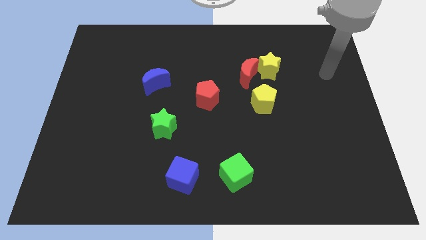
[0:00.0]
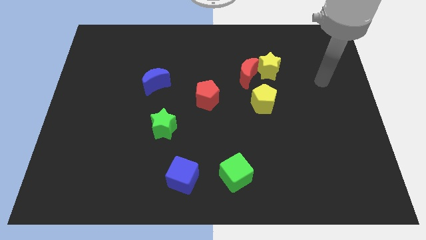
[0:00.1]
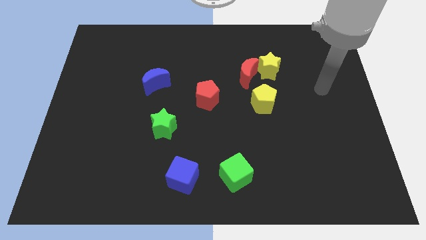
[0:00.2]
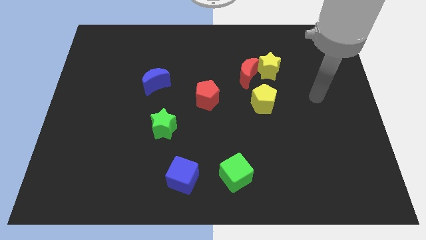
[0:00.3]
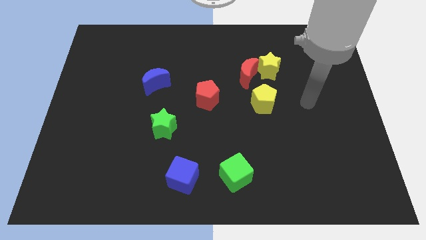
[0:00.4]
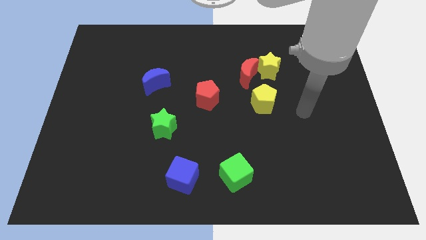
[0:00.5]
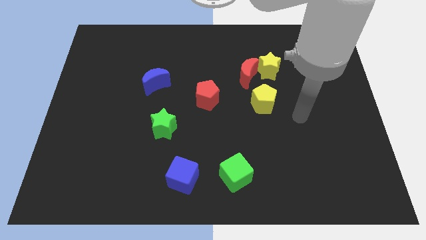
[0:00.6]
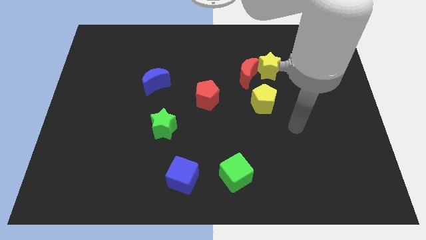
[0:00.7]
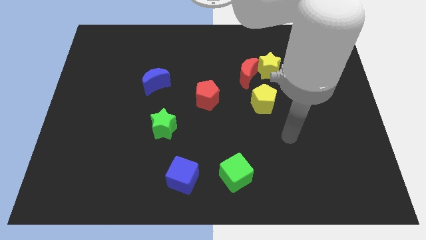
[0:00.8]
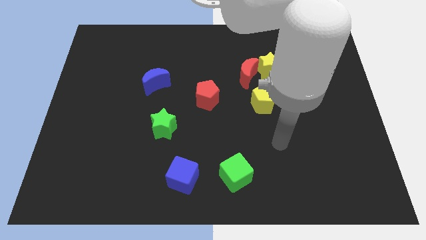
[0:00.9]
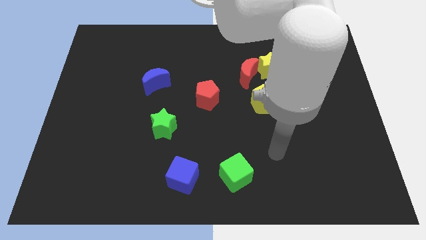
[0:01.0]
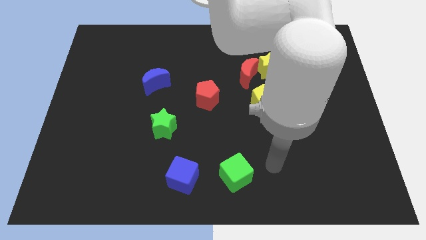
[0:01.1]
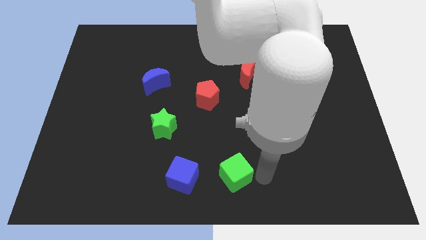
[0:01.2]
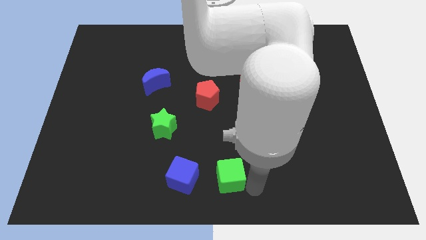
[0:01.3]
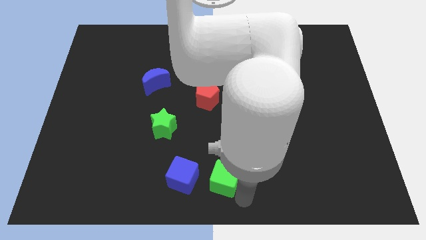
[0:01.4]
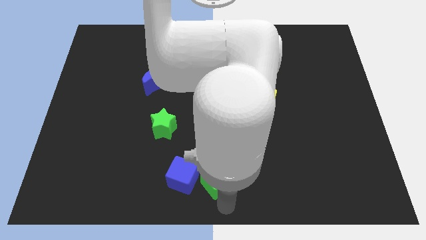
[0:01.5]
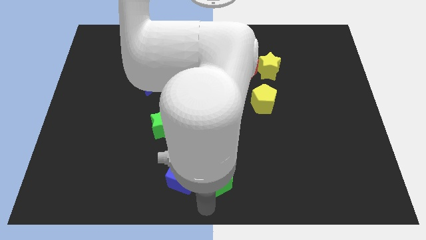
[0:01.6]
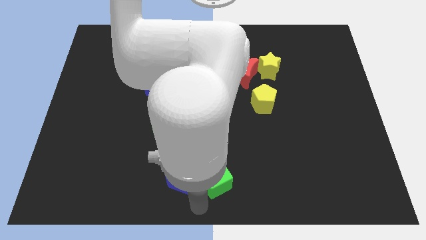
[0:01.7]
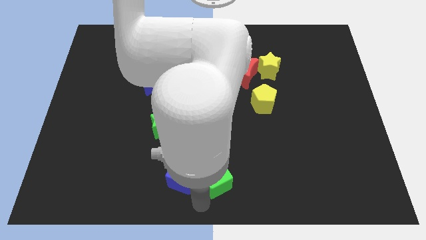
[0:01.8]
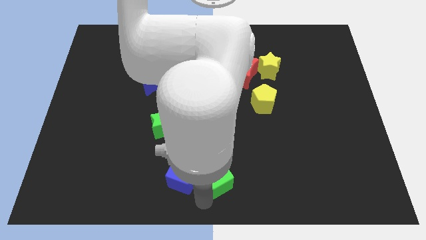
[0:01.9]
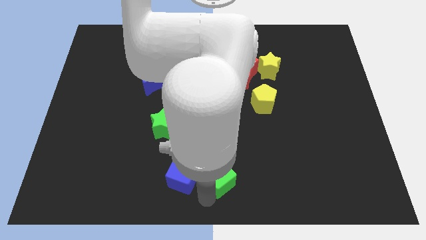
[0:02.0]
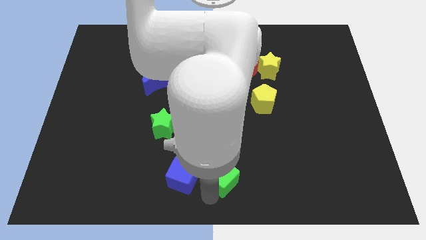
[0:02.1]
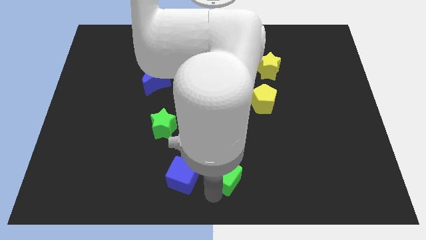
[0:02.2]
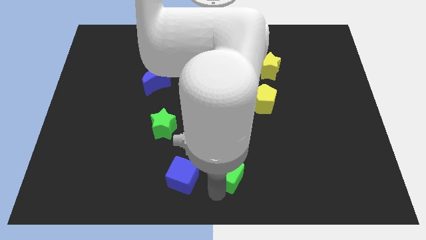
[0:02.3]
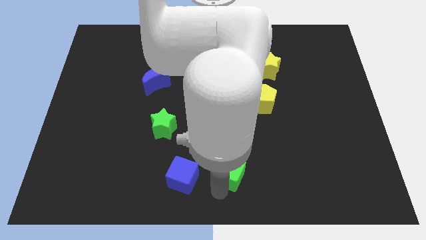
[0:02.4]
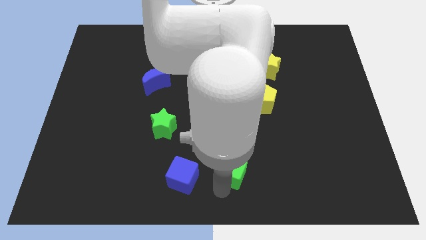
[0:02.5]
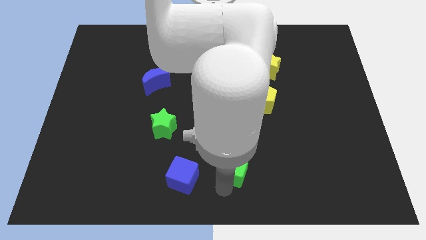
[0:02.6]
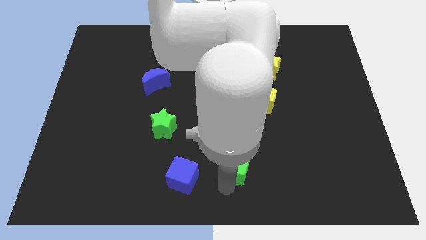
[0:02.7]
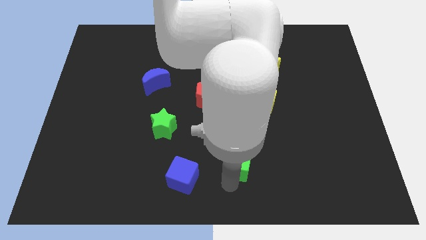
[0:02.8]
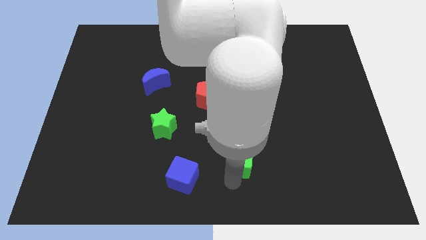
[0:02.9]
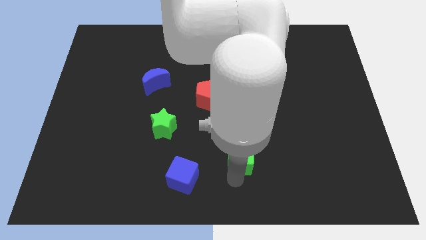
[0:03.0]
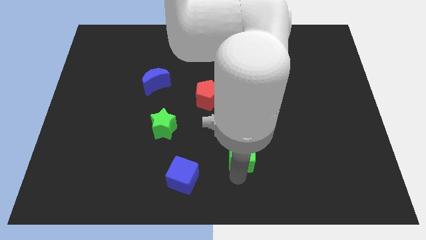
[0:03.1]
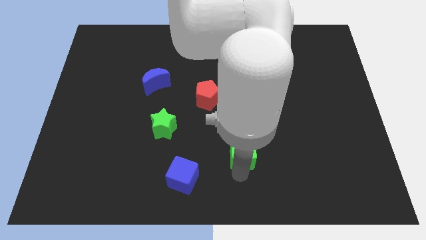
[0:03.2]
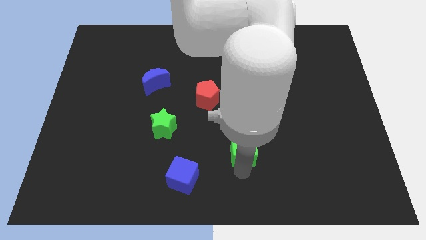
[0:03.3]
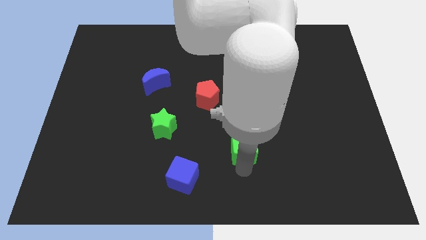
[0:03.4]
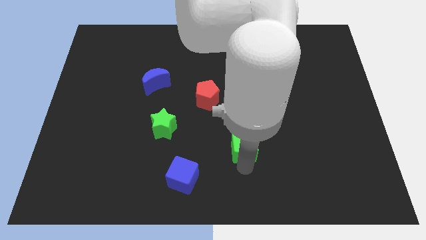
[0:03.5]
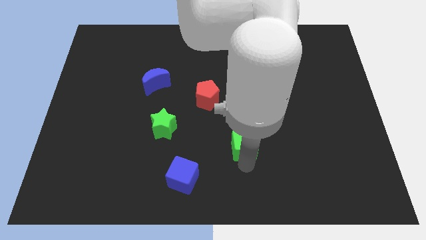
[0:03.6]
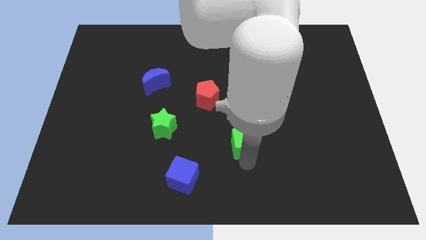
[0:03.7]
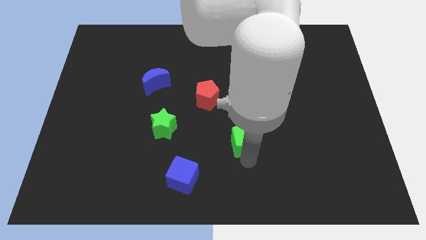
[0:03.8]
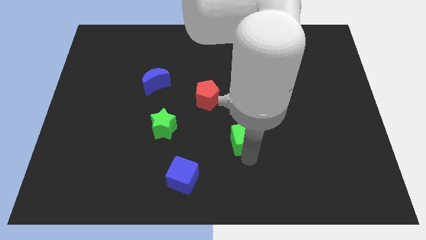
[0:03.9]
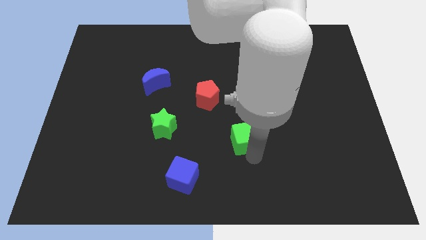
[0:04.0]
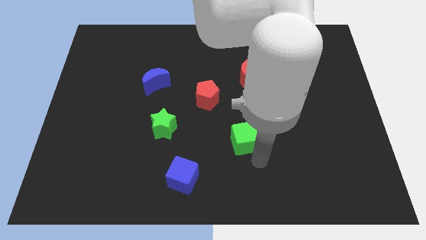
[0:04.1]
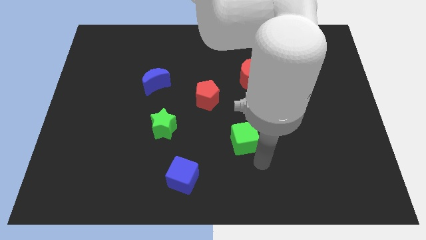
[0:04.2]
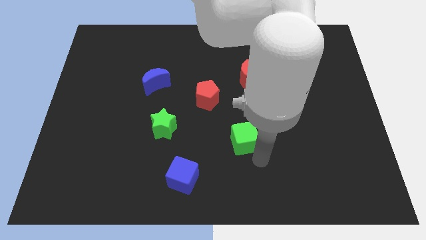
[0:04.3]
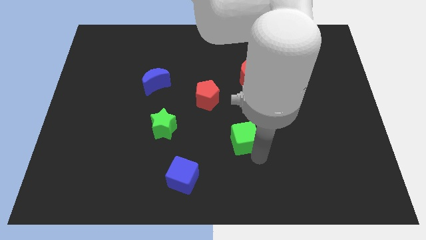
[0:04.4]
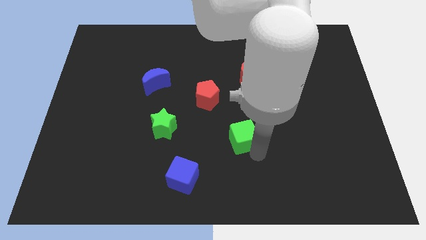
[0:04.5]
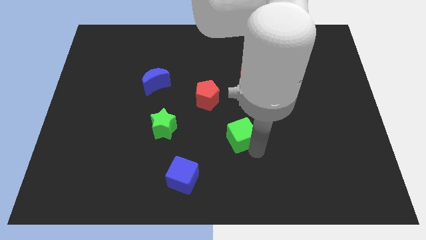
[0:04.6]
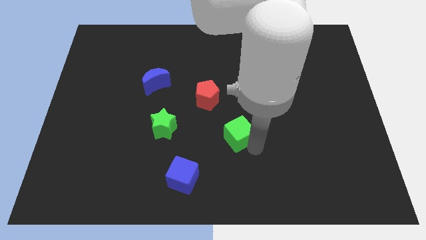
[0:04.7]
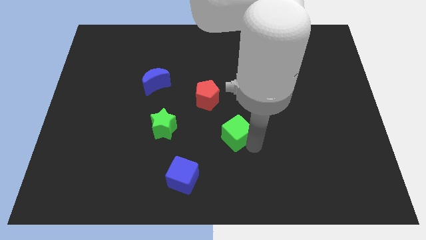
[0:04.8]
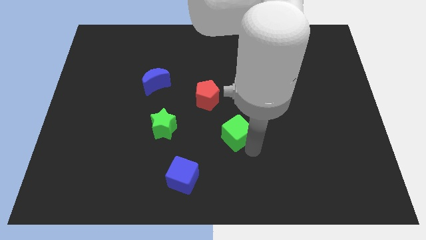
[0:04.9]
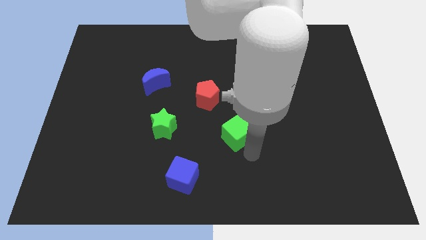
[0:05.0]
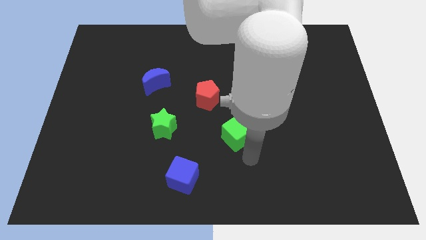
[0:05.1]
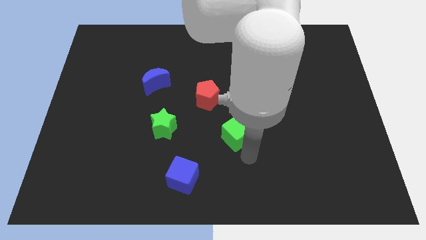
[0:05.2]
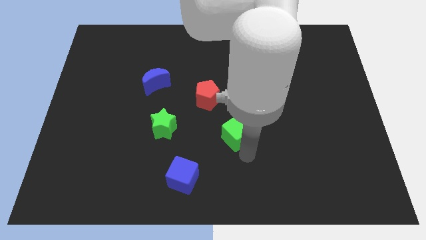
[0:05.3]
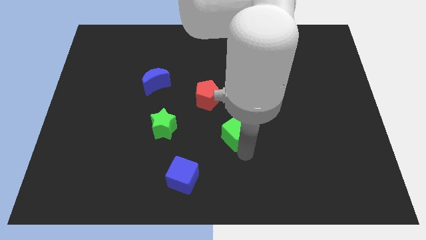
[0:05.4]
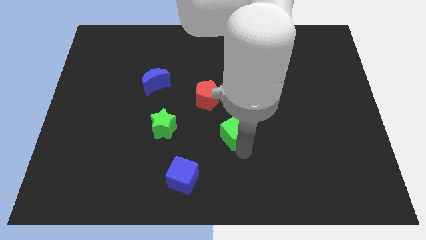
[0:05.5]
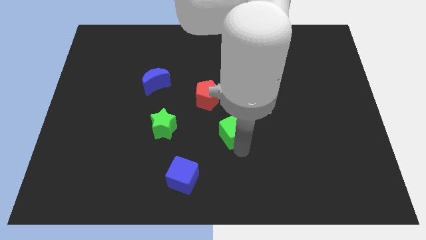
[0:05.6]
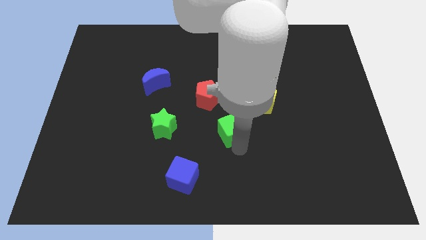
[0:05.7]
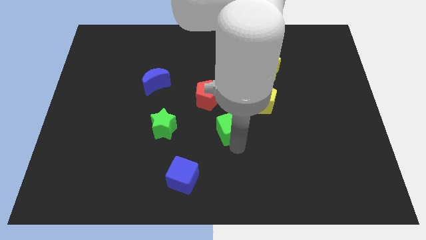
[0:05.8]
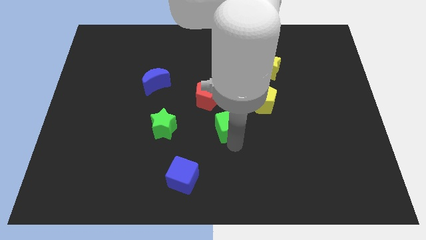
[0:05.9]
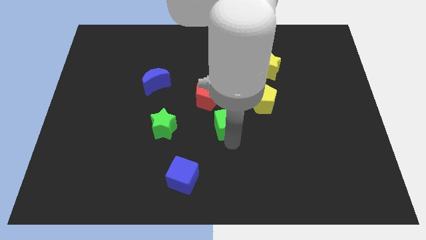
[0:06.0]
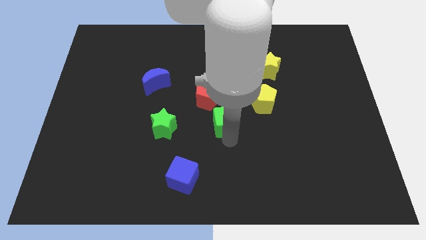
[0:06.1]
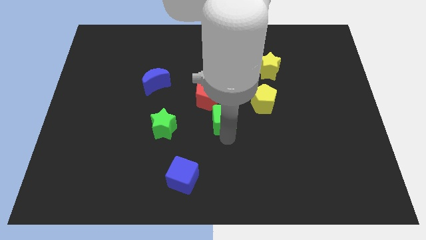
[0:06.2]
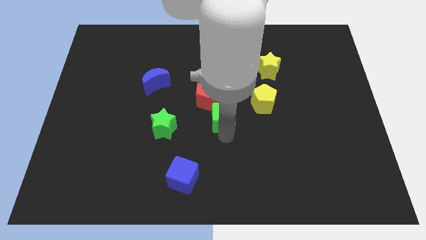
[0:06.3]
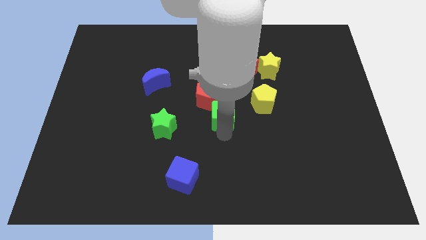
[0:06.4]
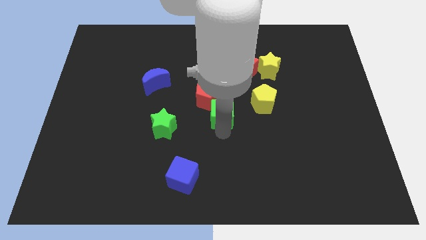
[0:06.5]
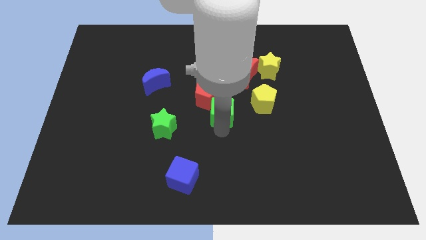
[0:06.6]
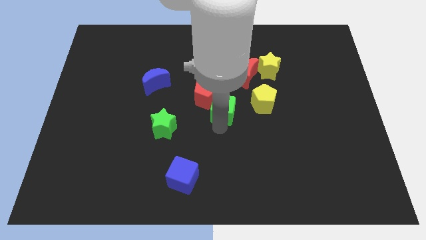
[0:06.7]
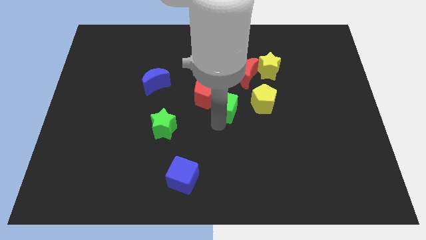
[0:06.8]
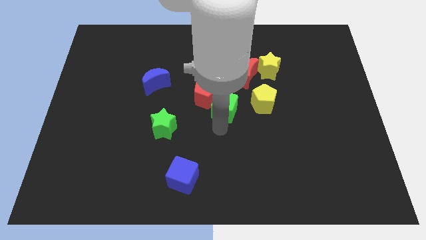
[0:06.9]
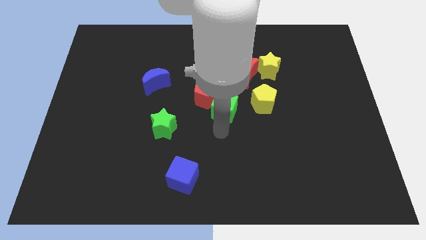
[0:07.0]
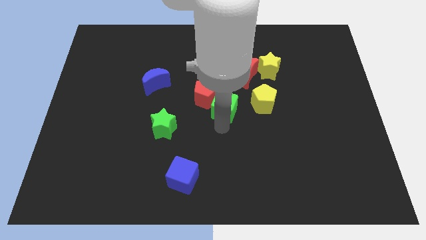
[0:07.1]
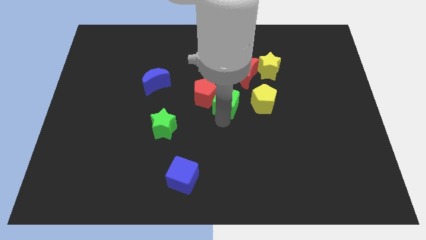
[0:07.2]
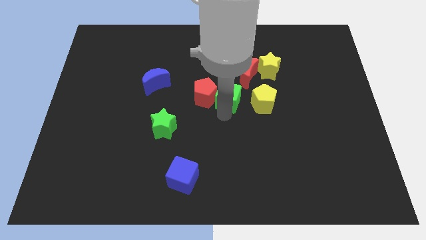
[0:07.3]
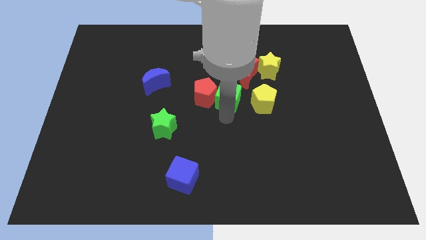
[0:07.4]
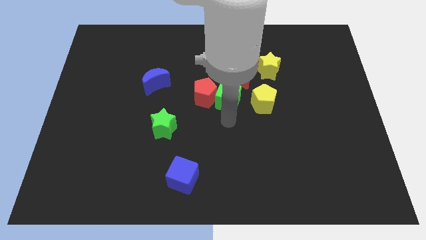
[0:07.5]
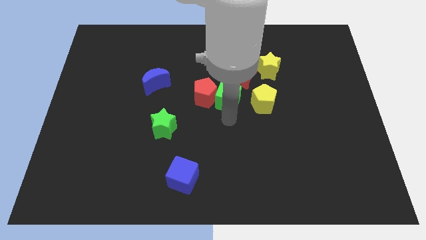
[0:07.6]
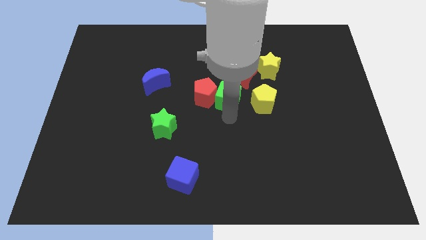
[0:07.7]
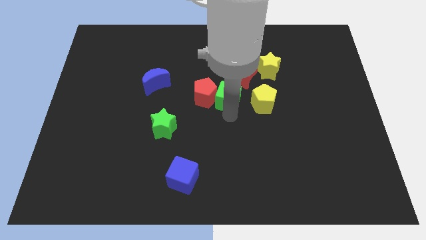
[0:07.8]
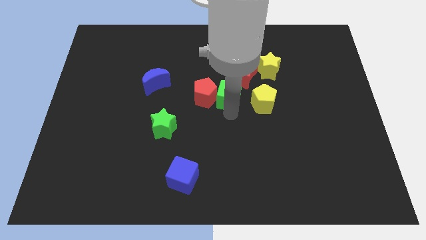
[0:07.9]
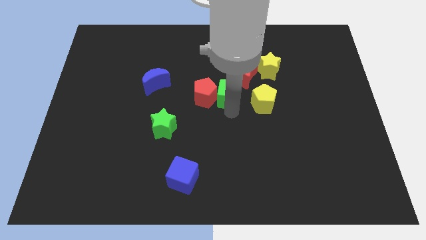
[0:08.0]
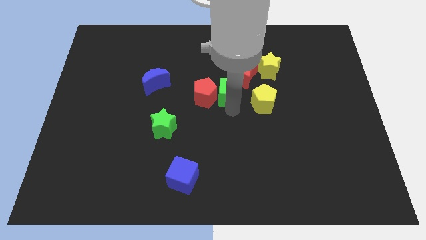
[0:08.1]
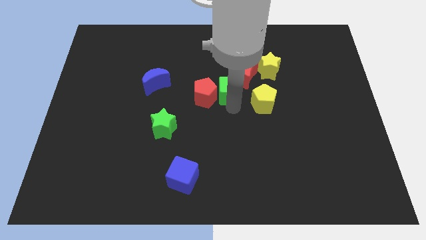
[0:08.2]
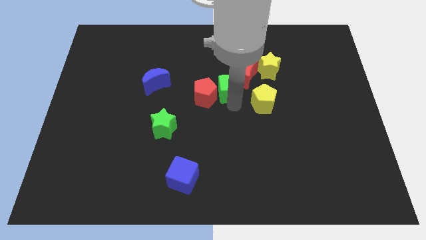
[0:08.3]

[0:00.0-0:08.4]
push the green cube to the bottom left of the yellow star

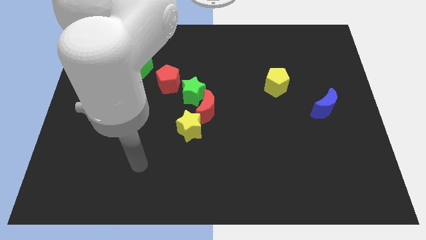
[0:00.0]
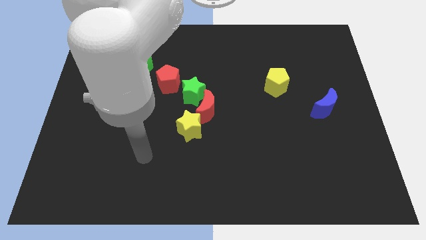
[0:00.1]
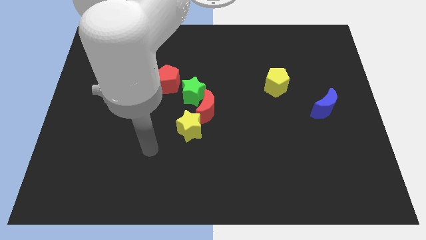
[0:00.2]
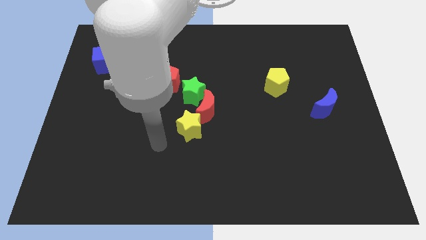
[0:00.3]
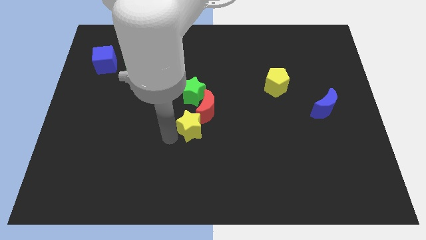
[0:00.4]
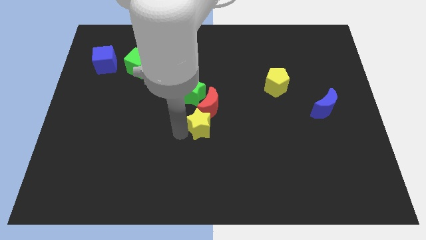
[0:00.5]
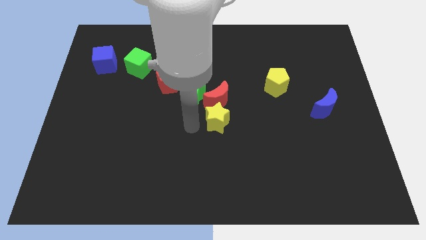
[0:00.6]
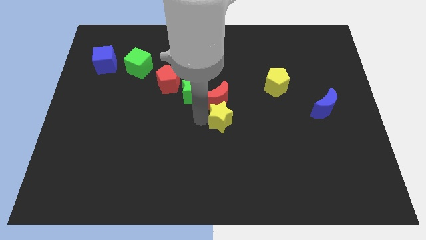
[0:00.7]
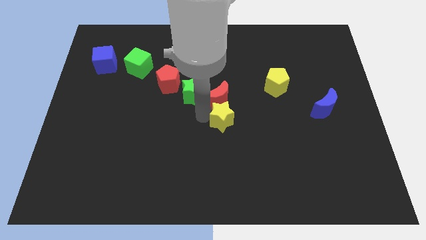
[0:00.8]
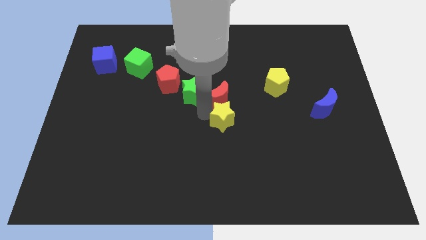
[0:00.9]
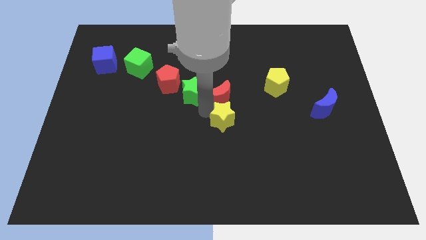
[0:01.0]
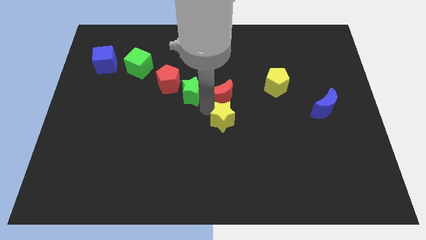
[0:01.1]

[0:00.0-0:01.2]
move the red moon left of the yellow pentagon
